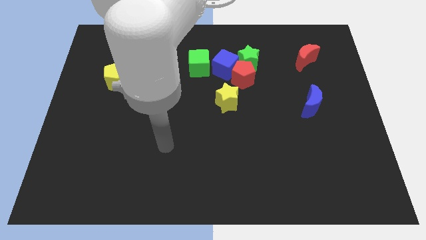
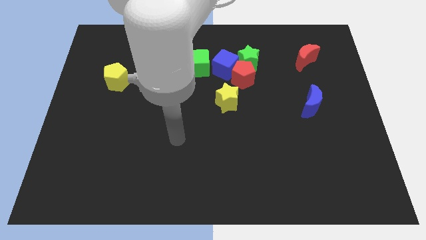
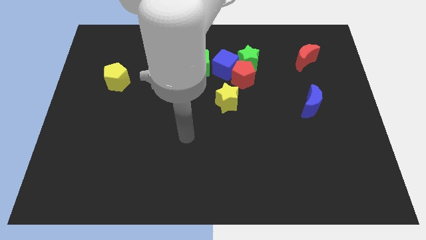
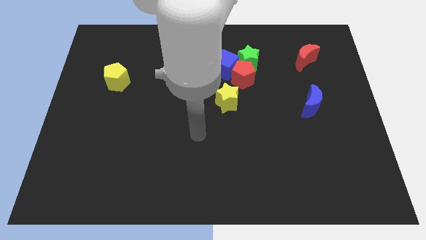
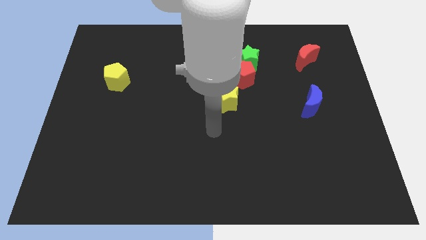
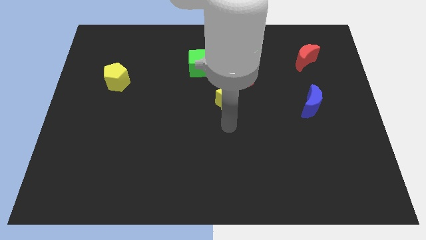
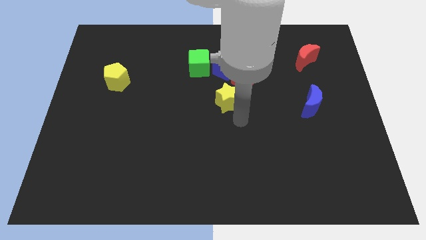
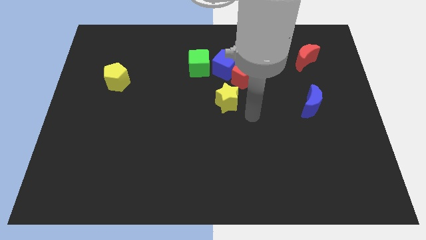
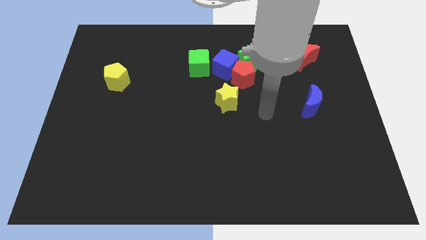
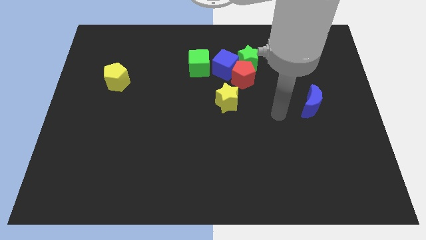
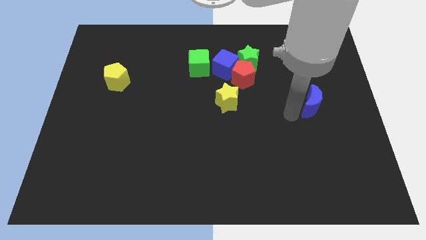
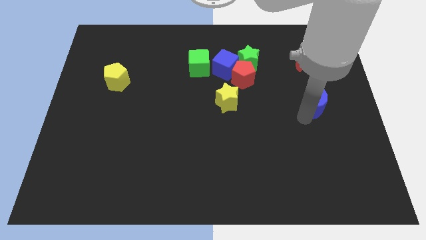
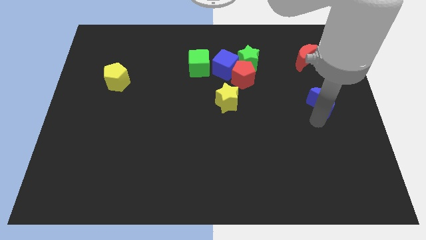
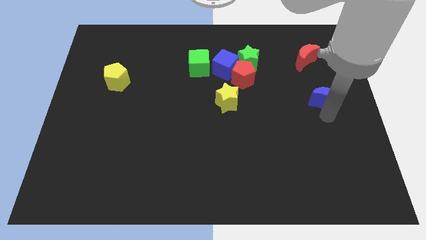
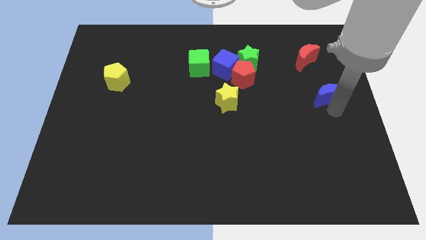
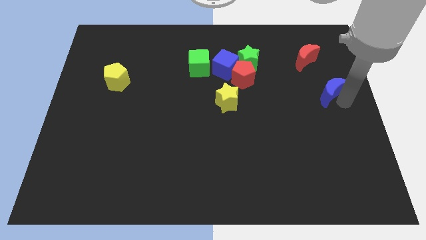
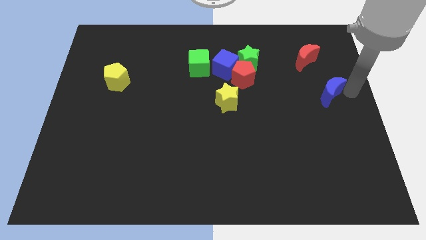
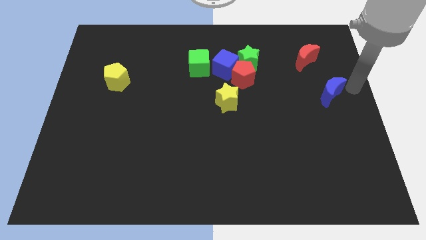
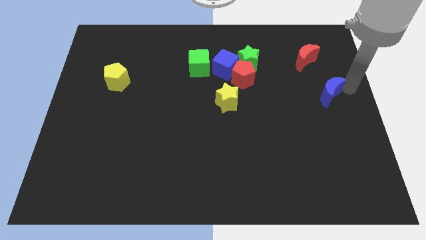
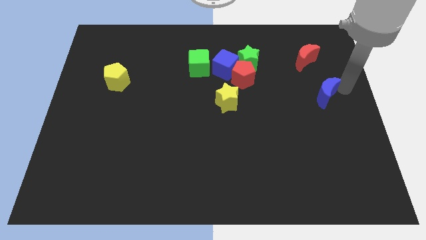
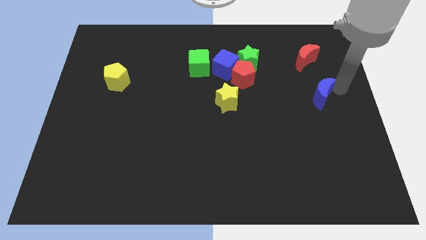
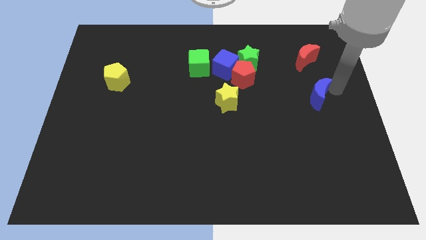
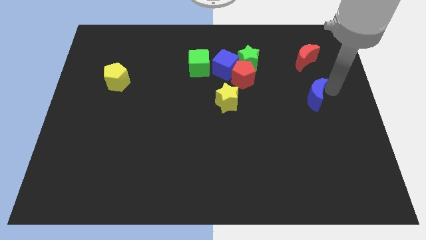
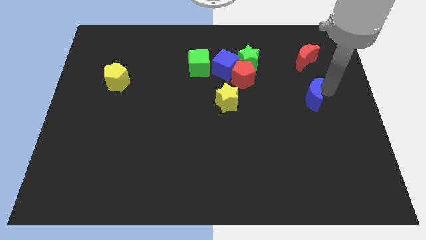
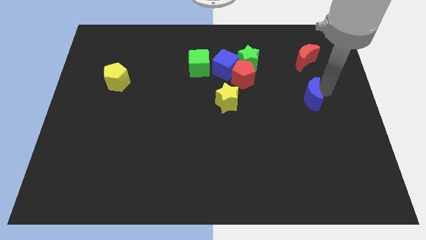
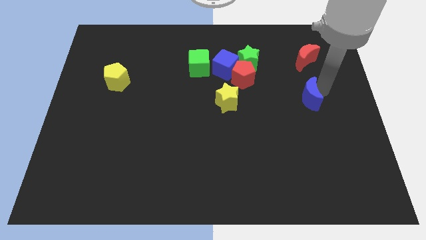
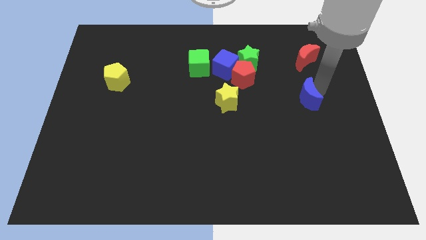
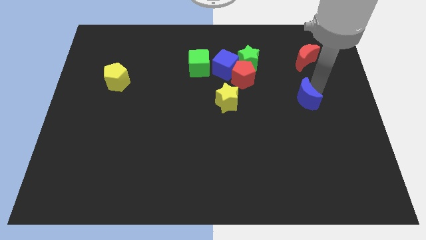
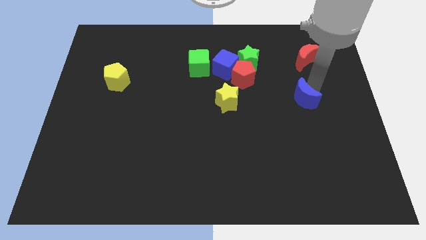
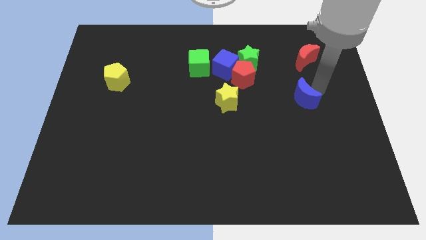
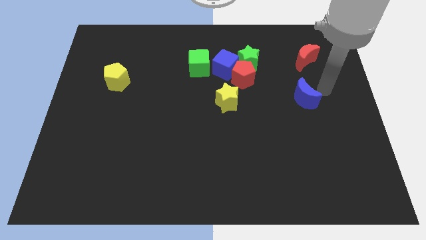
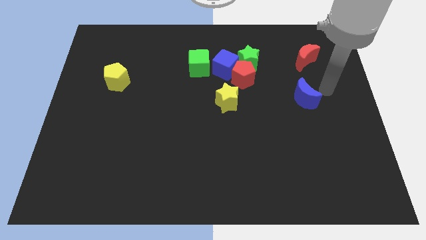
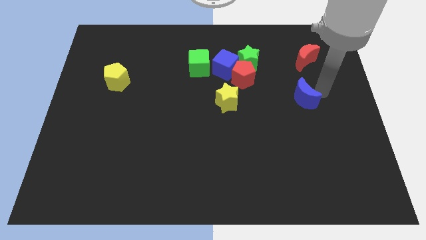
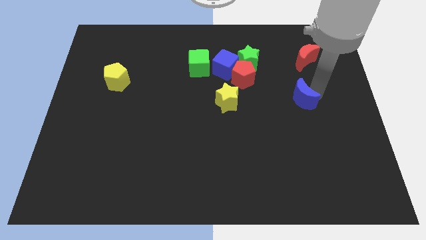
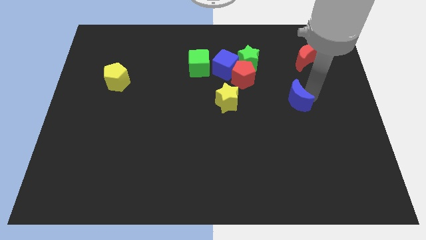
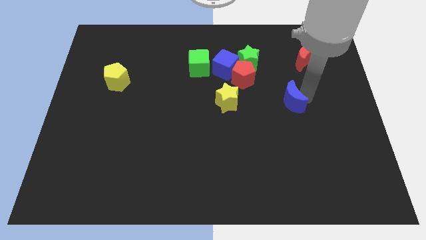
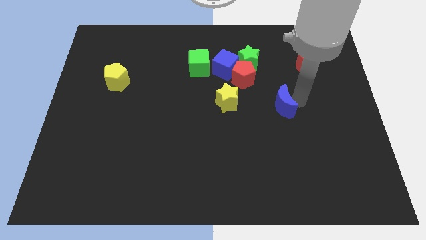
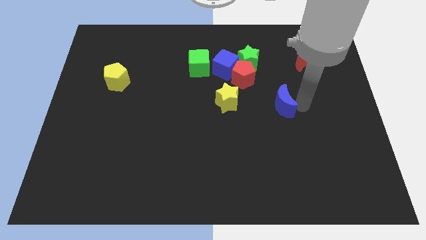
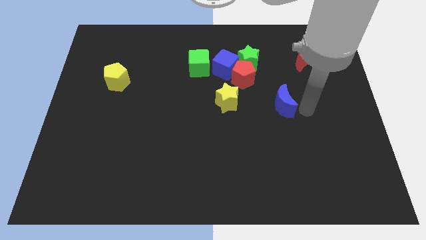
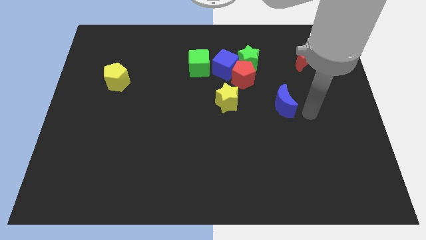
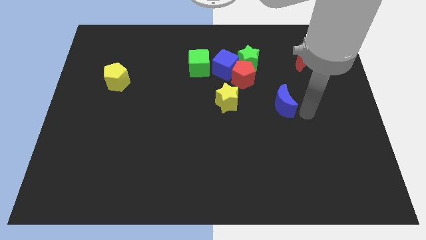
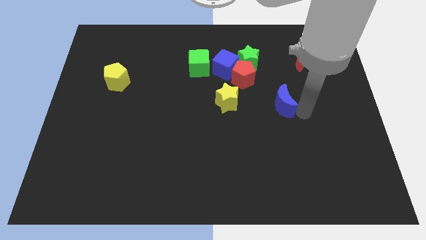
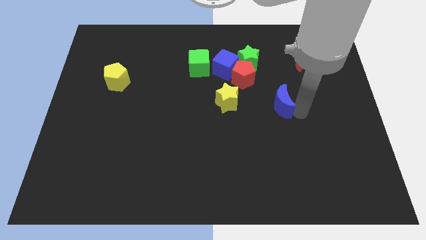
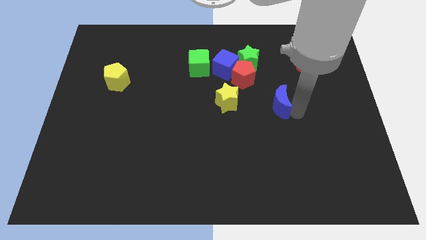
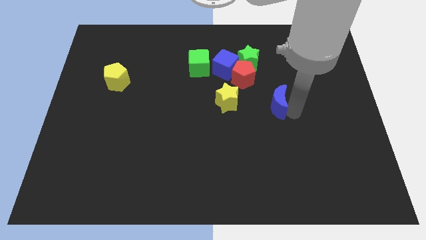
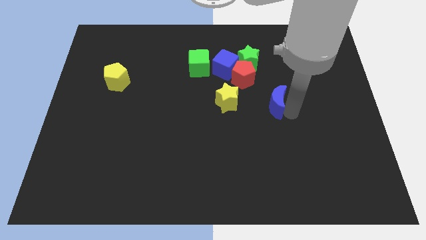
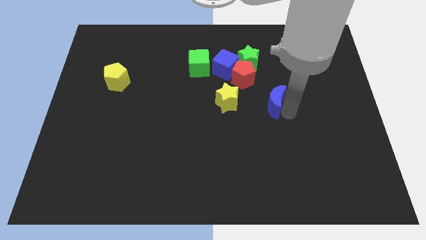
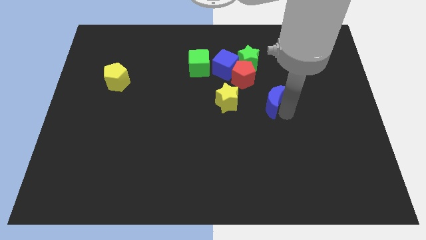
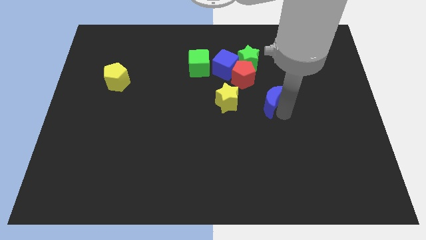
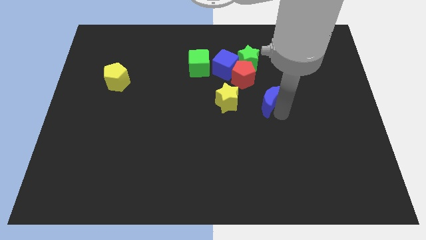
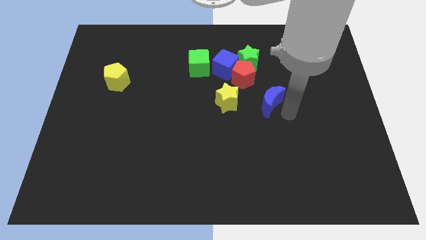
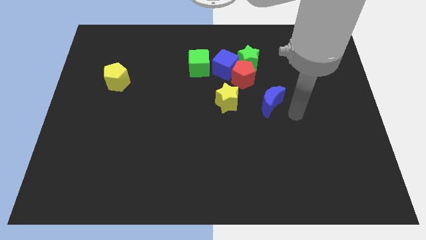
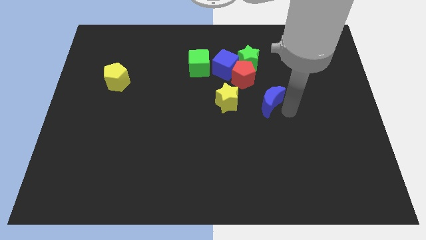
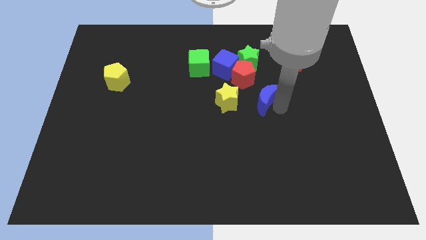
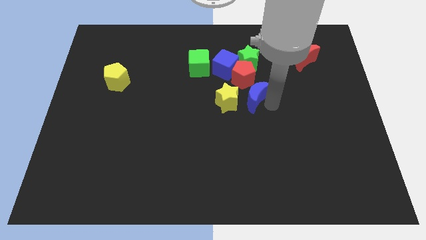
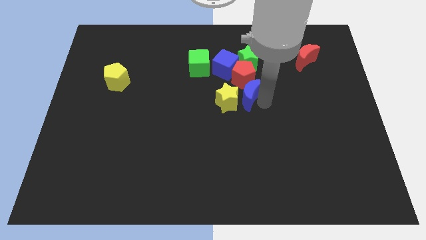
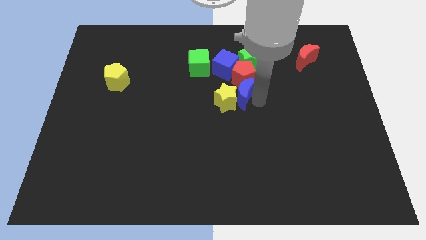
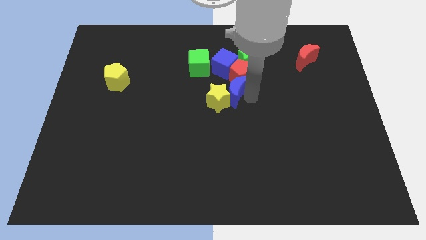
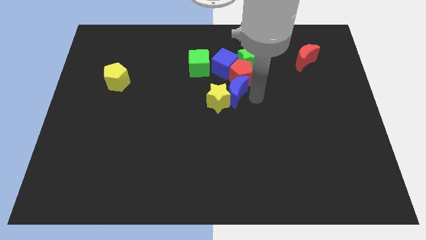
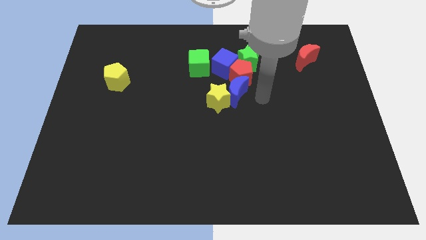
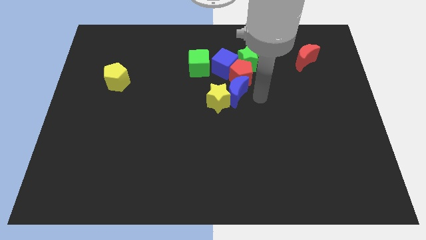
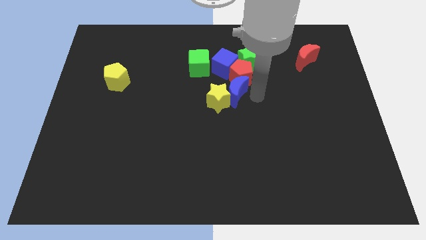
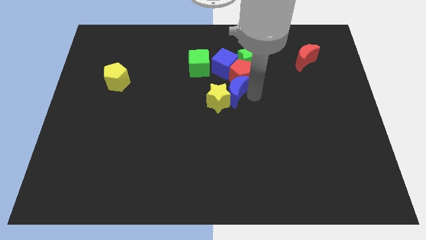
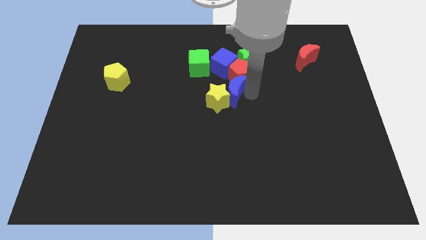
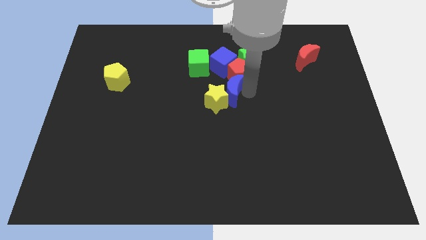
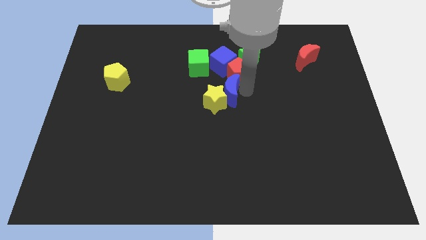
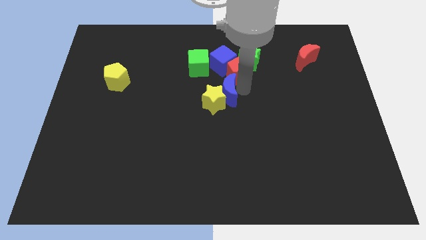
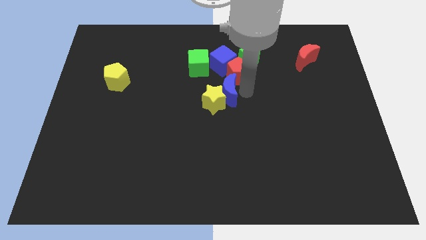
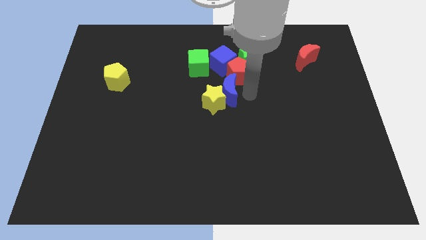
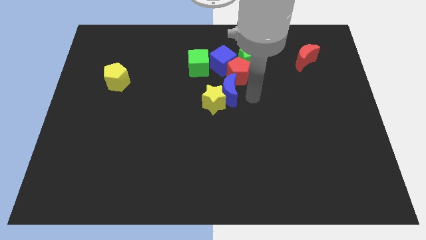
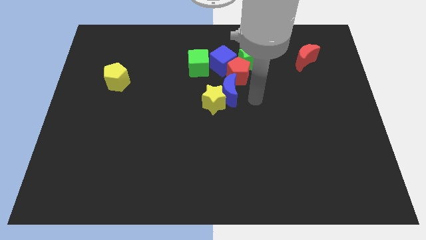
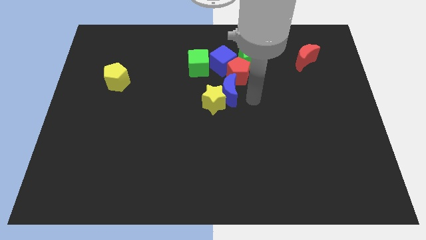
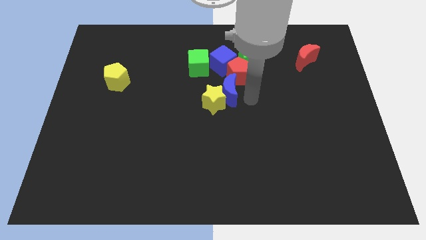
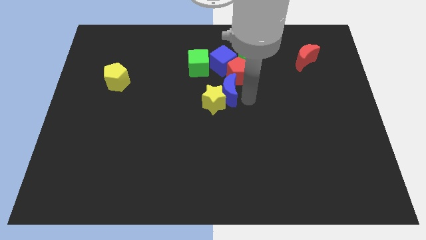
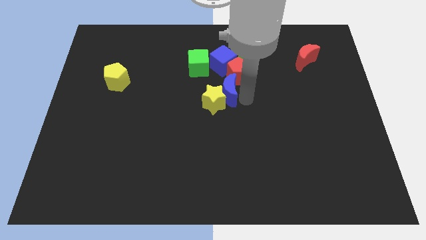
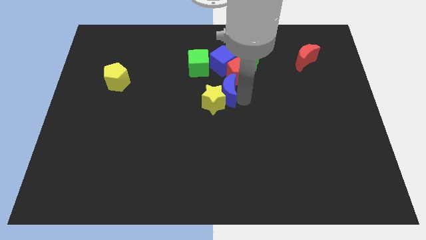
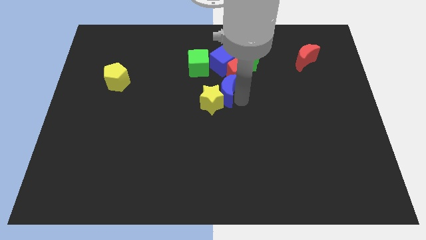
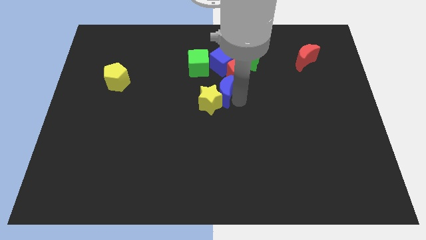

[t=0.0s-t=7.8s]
move the blue moon left

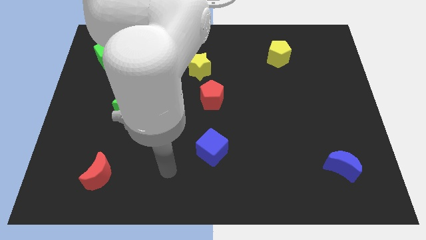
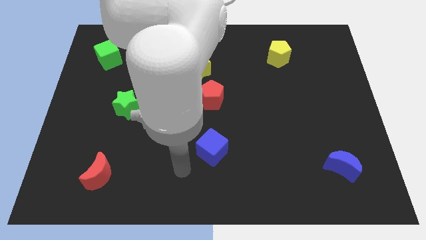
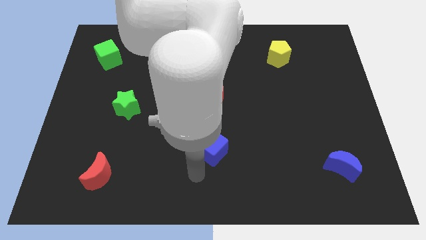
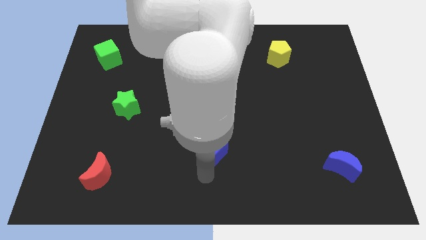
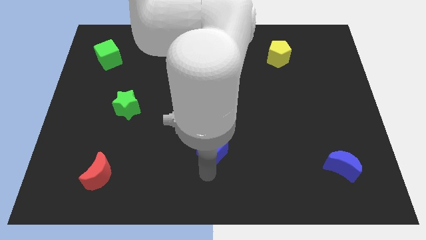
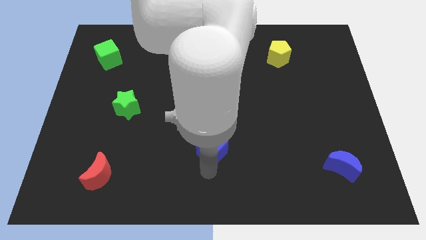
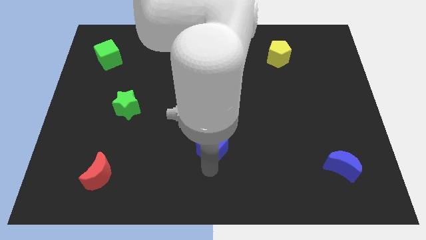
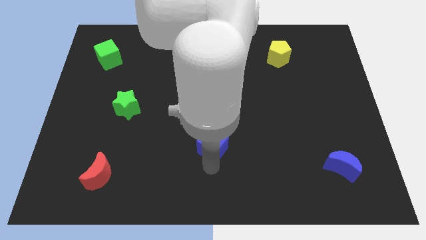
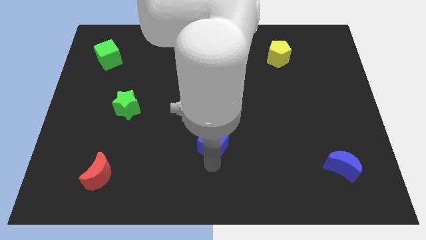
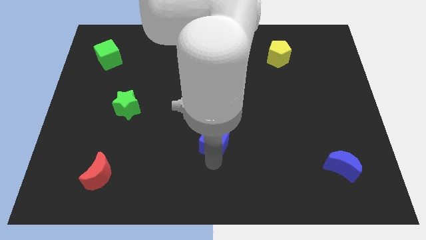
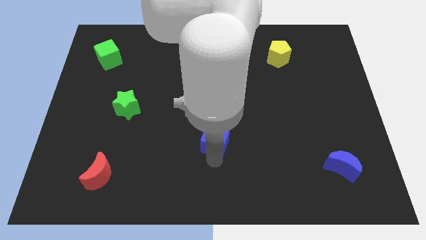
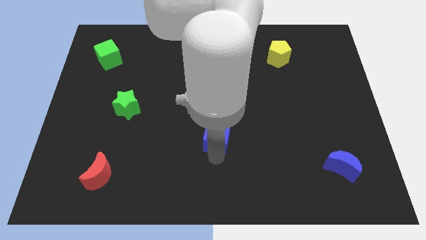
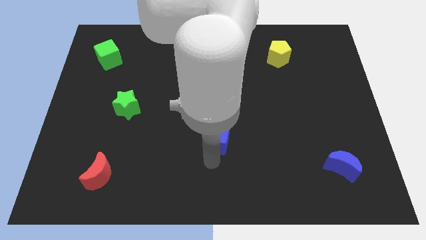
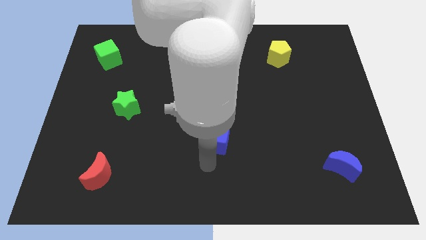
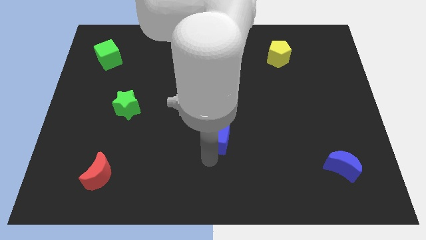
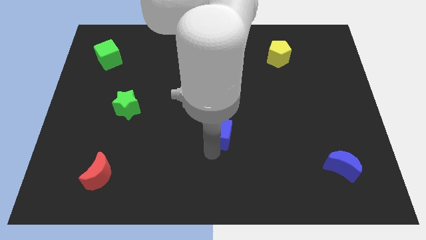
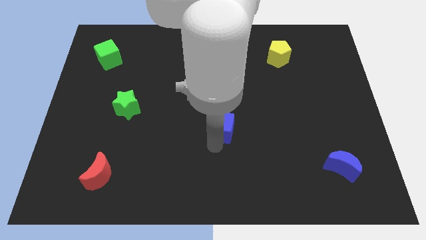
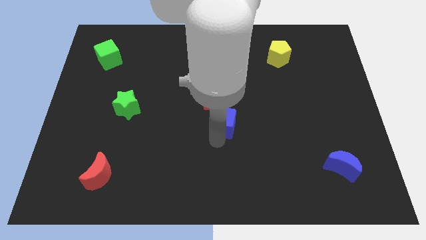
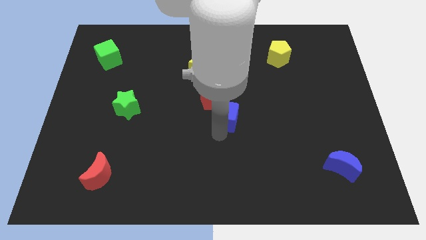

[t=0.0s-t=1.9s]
move the blue cube a bit upwards
